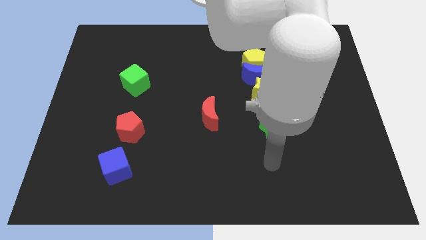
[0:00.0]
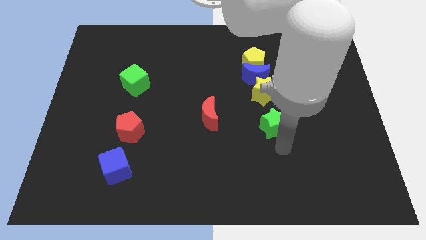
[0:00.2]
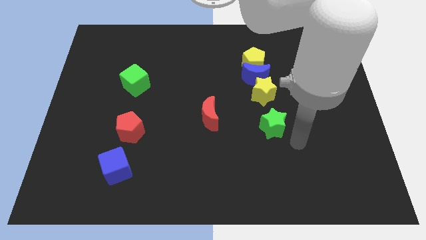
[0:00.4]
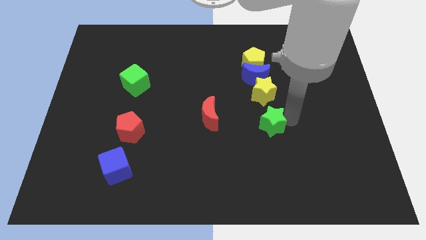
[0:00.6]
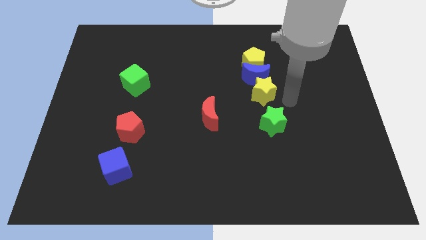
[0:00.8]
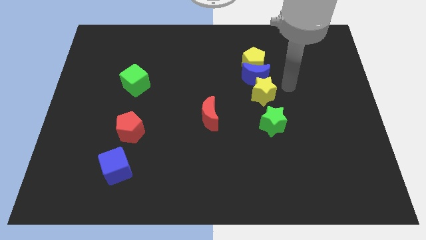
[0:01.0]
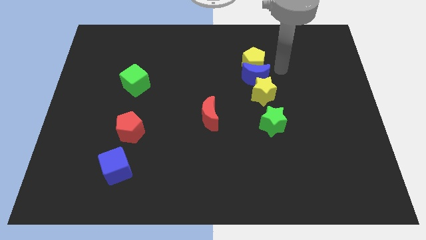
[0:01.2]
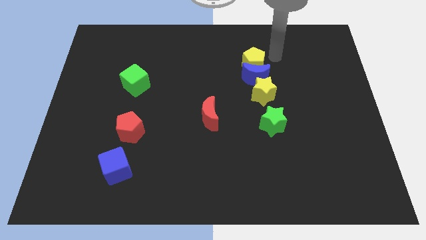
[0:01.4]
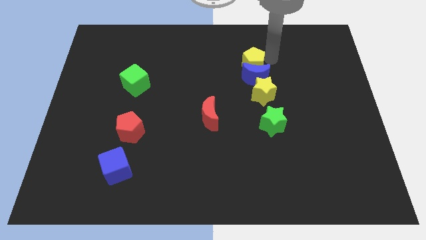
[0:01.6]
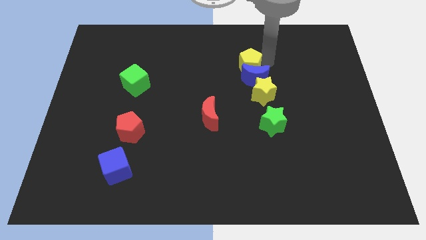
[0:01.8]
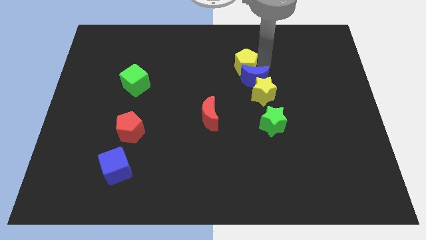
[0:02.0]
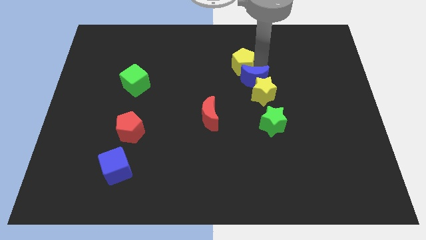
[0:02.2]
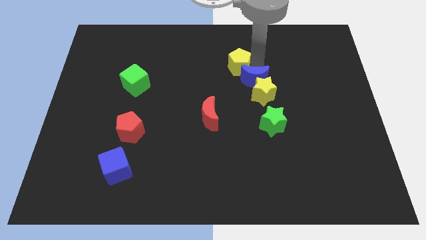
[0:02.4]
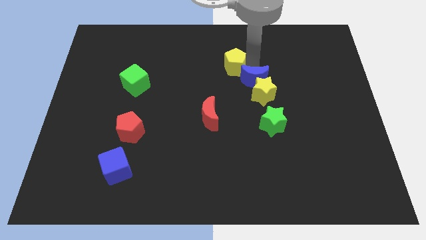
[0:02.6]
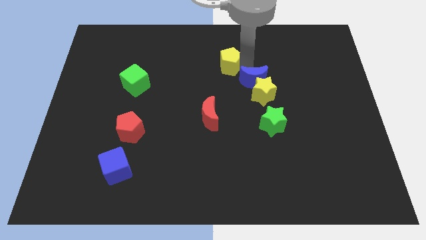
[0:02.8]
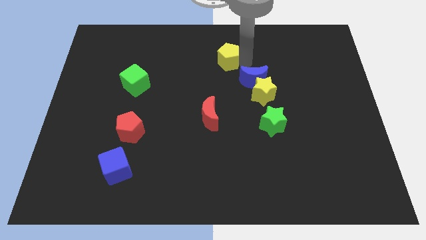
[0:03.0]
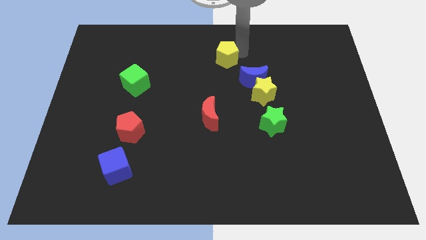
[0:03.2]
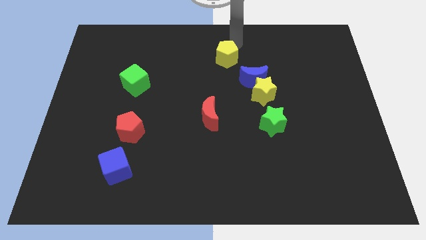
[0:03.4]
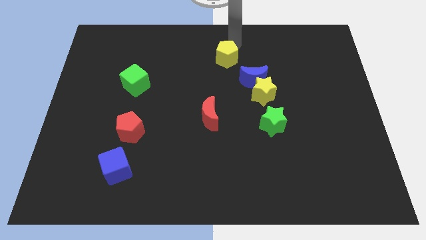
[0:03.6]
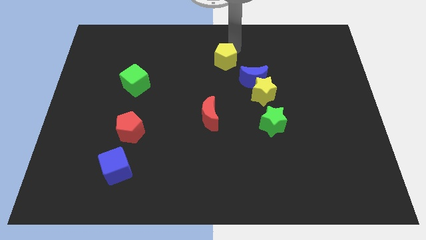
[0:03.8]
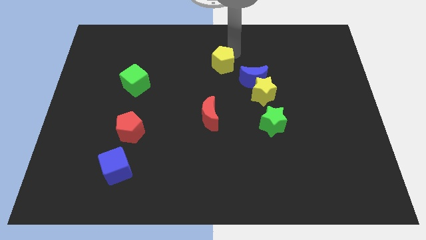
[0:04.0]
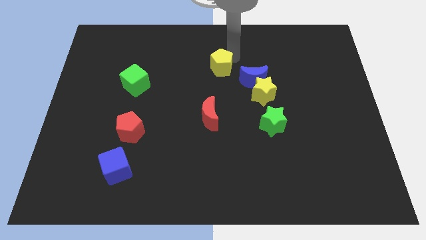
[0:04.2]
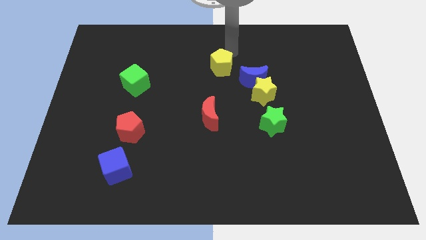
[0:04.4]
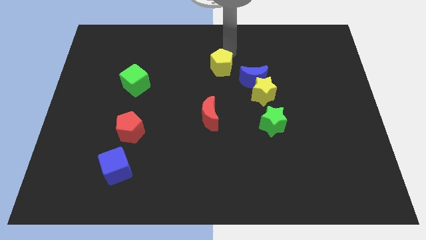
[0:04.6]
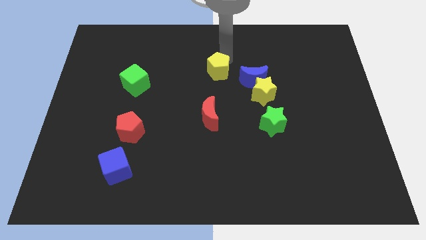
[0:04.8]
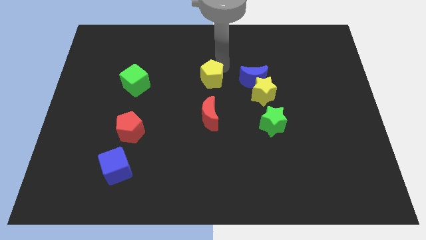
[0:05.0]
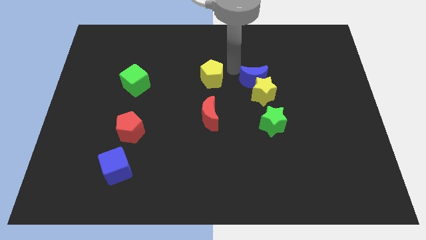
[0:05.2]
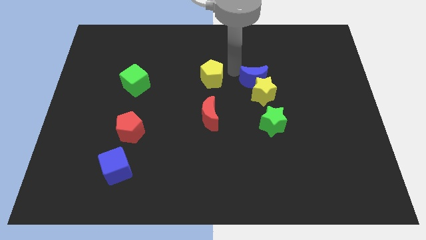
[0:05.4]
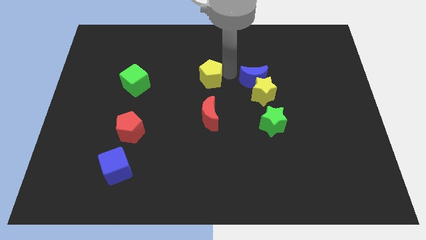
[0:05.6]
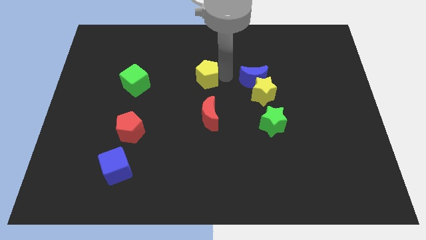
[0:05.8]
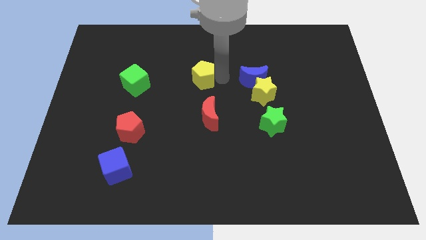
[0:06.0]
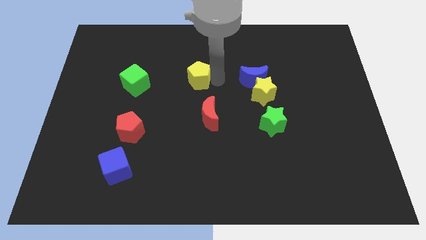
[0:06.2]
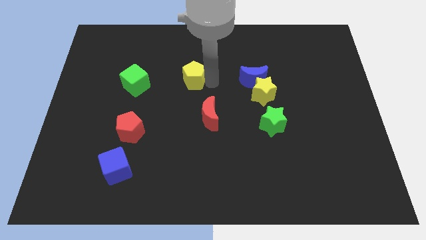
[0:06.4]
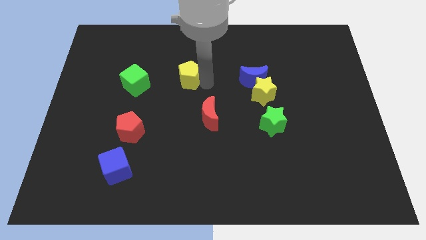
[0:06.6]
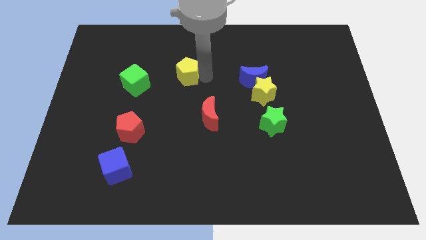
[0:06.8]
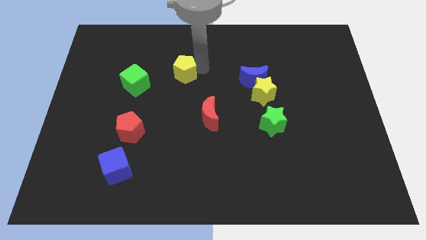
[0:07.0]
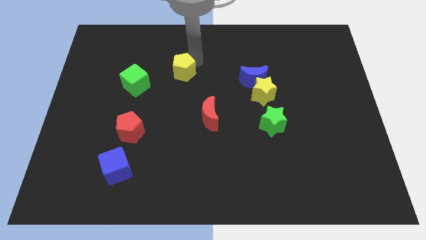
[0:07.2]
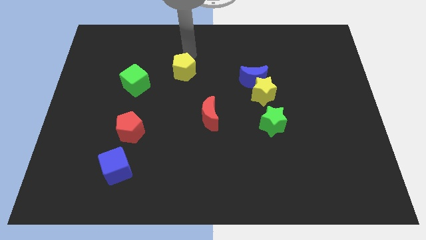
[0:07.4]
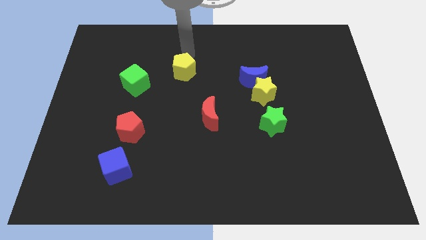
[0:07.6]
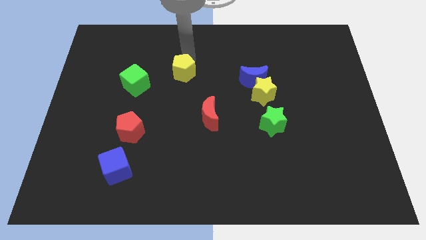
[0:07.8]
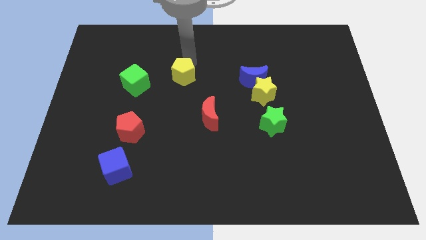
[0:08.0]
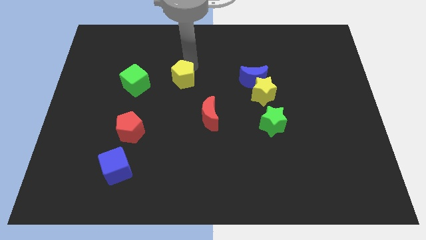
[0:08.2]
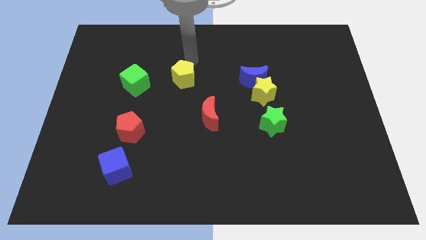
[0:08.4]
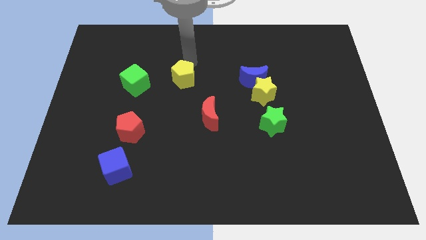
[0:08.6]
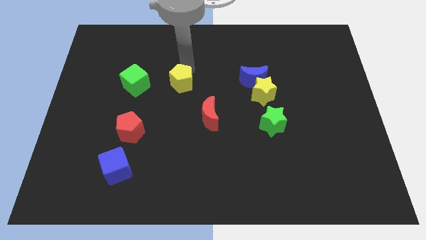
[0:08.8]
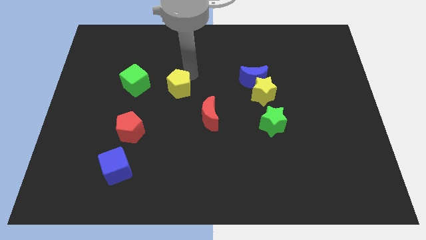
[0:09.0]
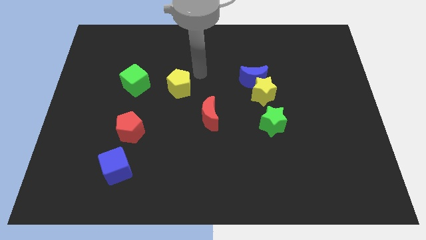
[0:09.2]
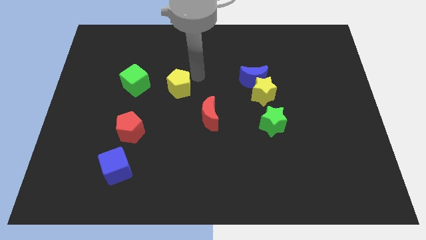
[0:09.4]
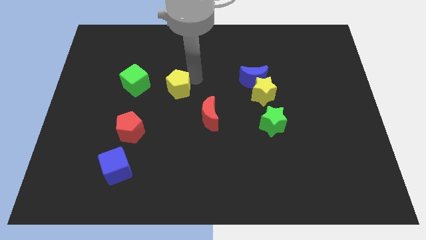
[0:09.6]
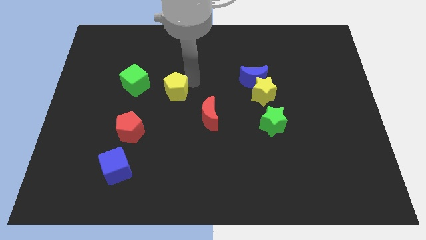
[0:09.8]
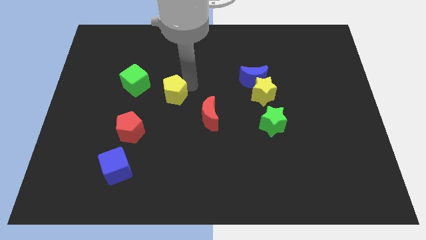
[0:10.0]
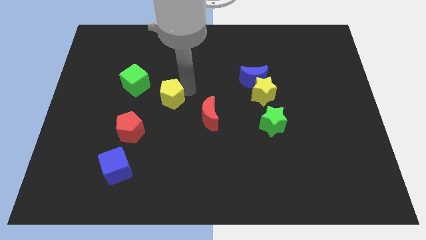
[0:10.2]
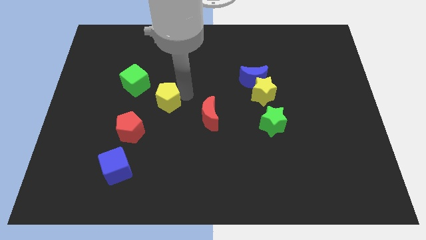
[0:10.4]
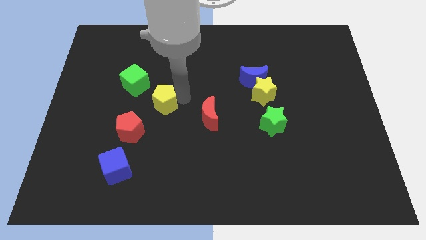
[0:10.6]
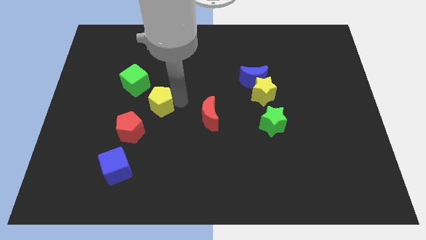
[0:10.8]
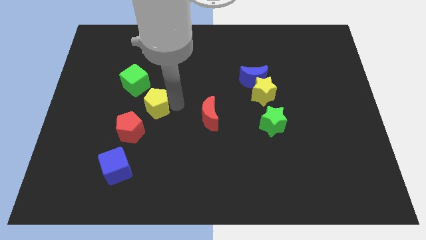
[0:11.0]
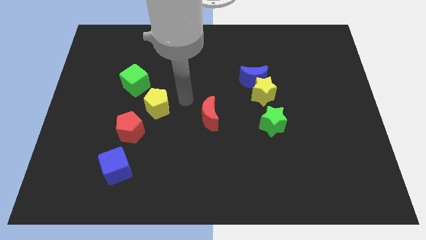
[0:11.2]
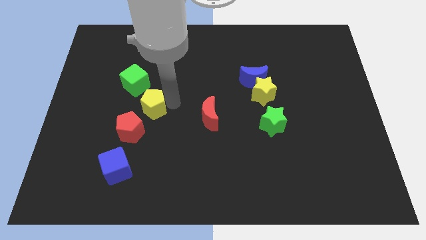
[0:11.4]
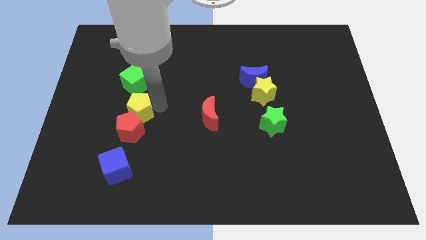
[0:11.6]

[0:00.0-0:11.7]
slide the yellow pentagon above the blue cube

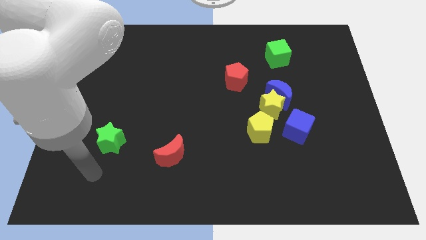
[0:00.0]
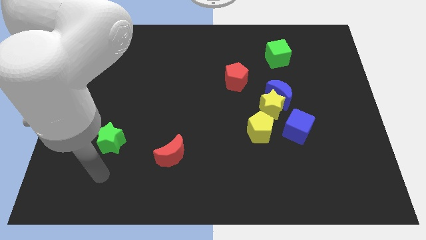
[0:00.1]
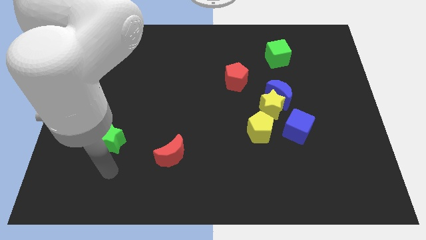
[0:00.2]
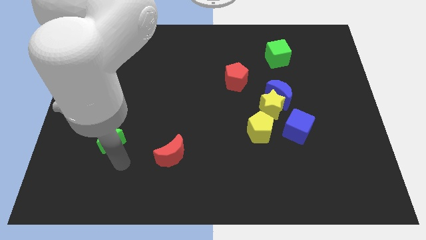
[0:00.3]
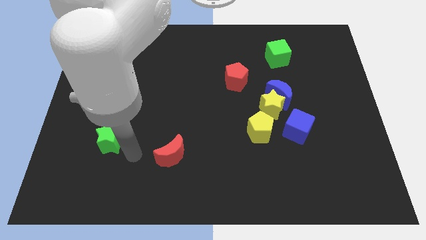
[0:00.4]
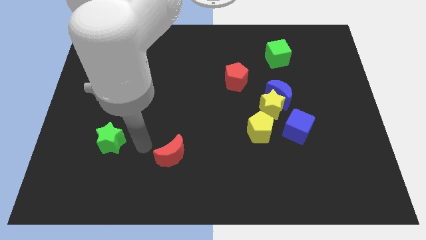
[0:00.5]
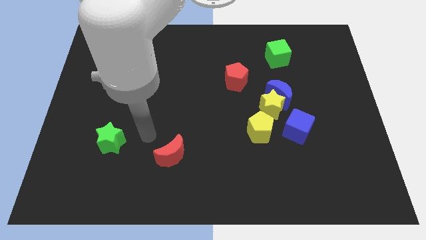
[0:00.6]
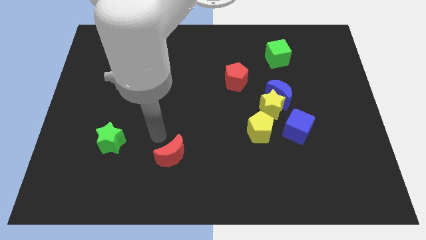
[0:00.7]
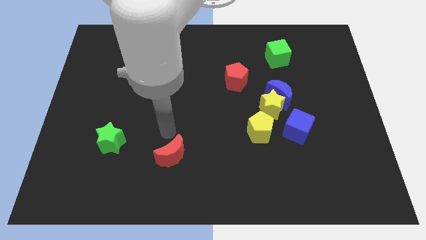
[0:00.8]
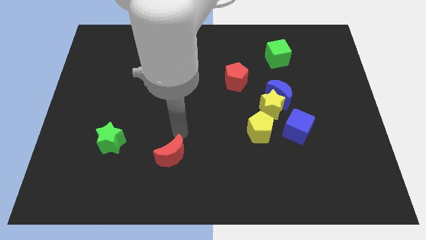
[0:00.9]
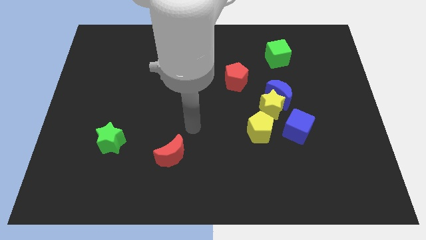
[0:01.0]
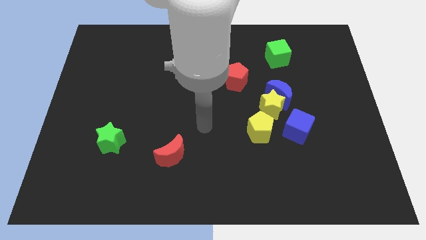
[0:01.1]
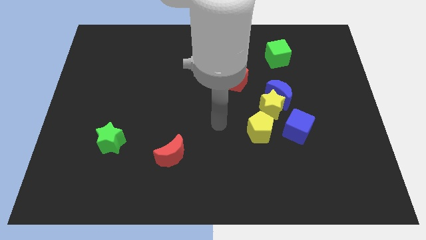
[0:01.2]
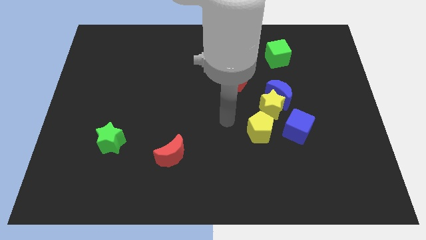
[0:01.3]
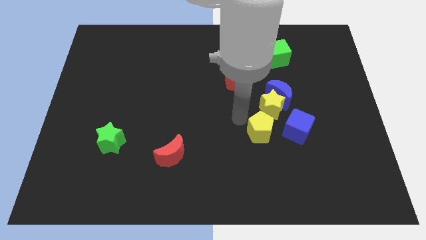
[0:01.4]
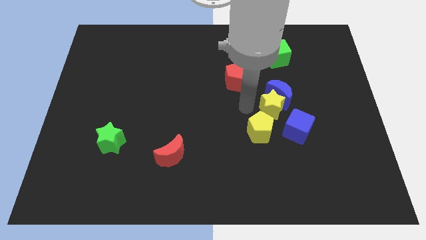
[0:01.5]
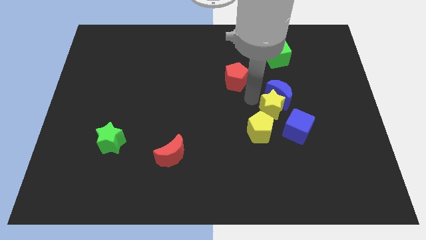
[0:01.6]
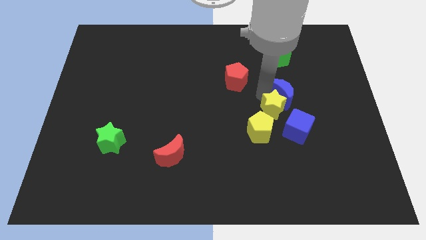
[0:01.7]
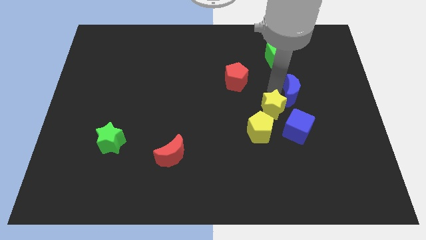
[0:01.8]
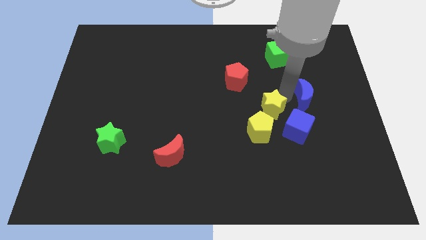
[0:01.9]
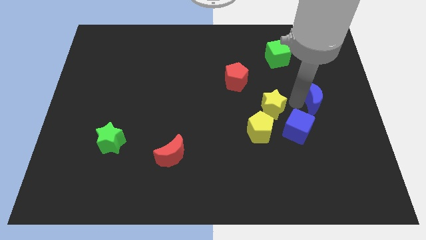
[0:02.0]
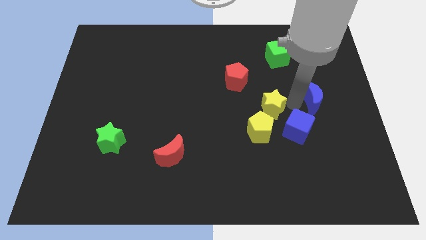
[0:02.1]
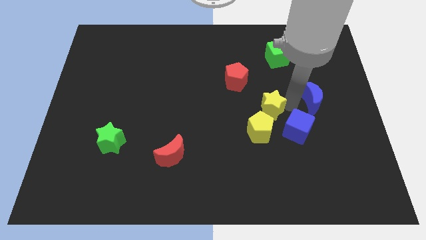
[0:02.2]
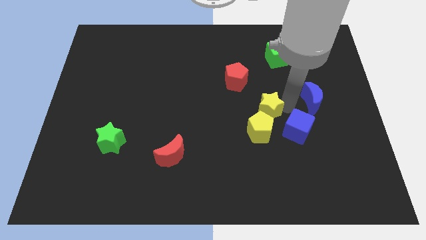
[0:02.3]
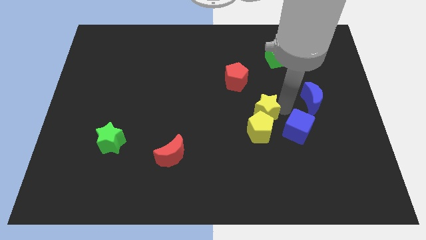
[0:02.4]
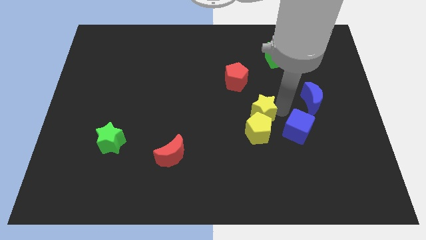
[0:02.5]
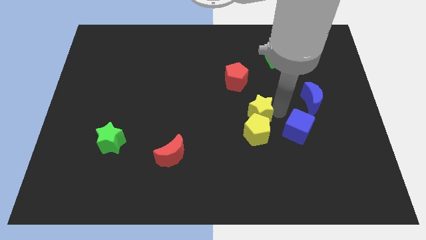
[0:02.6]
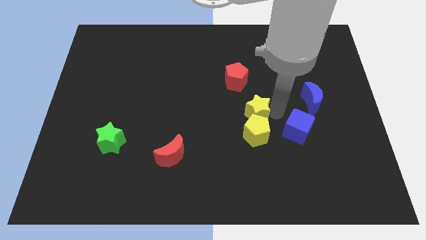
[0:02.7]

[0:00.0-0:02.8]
slide the yellow star diagonally up and to the left of the yellow pentagon
